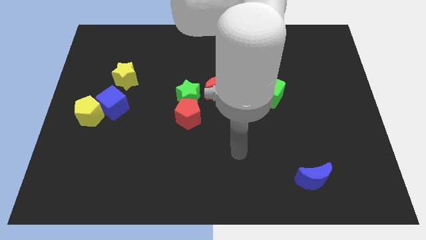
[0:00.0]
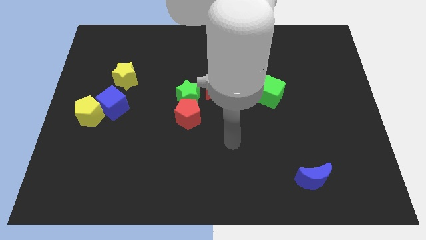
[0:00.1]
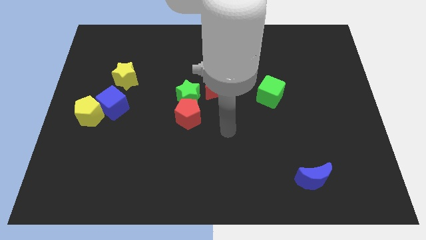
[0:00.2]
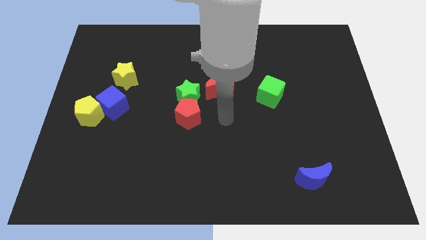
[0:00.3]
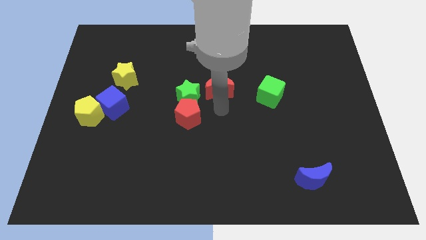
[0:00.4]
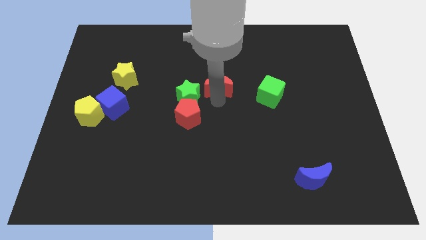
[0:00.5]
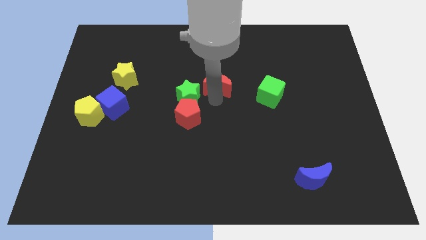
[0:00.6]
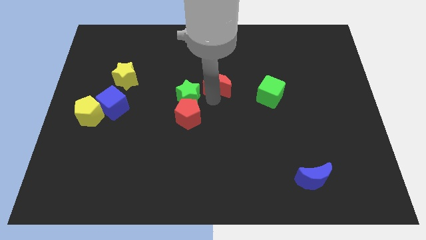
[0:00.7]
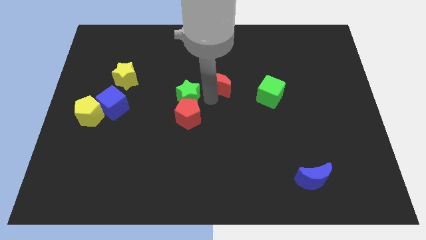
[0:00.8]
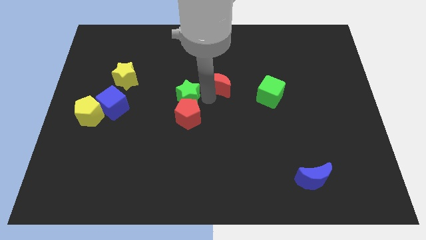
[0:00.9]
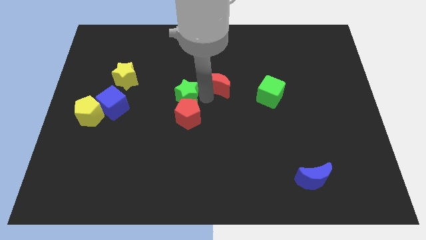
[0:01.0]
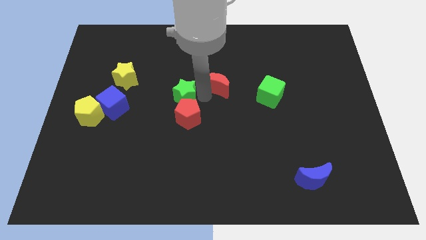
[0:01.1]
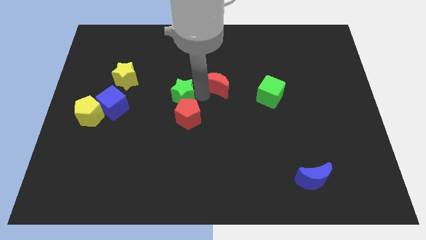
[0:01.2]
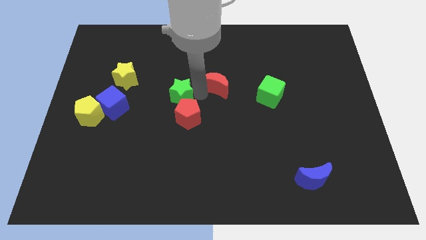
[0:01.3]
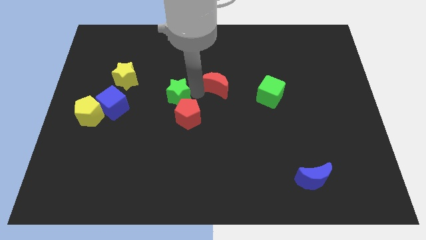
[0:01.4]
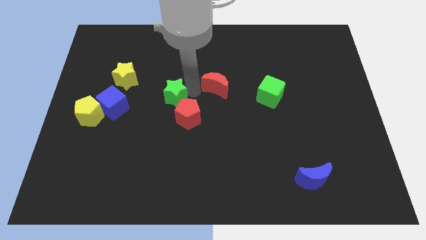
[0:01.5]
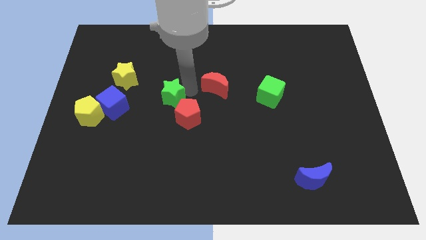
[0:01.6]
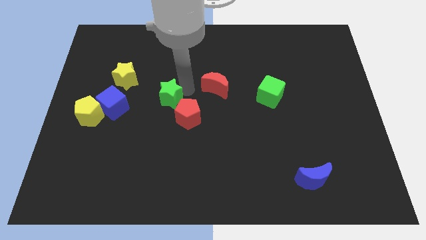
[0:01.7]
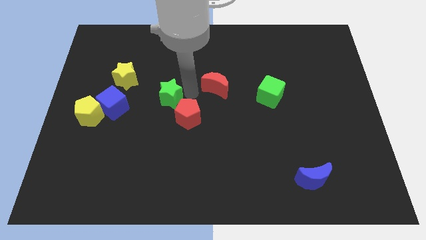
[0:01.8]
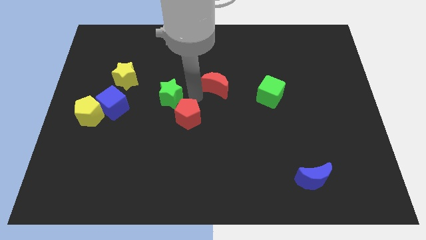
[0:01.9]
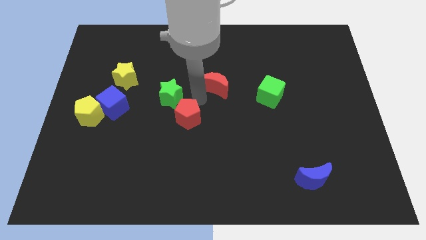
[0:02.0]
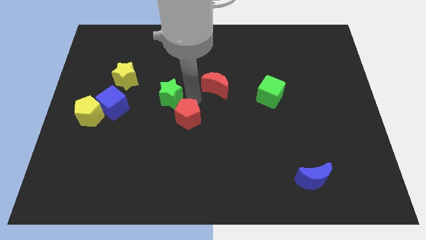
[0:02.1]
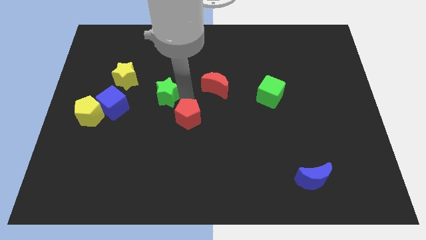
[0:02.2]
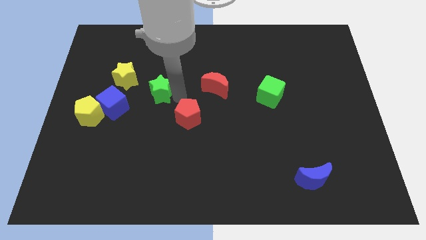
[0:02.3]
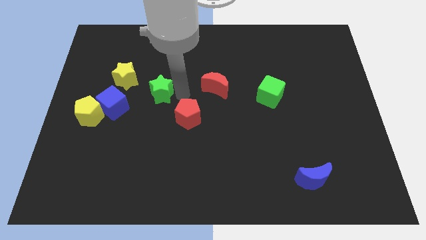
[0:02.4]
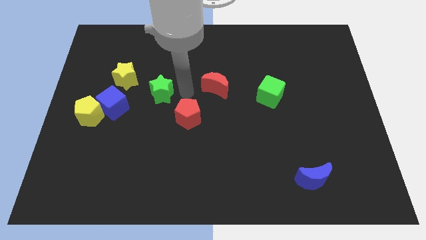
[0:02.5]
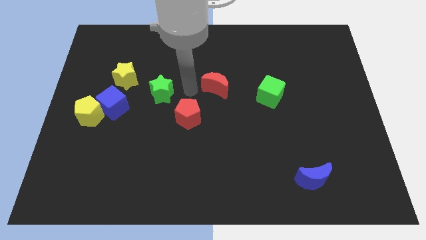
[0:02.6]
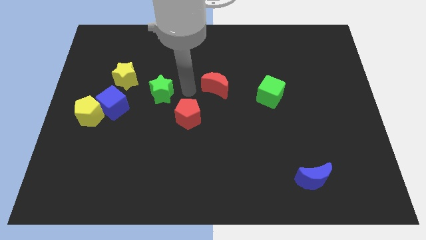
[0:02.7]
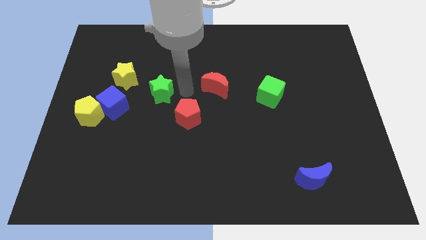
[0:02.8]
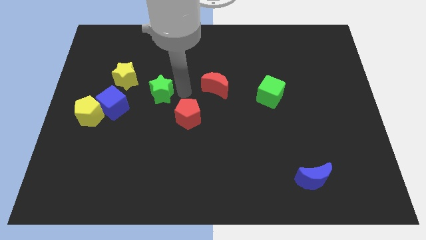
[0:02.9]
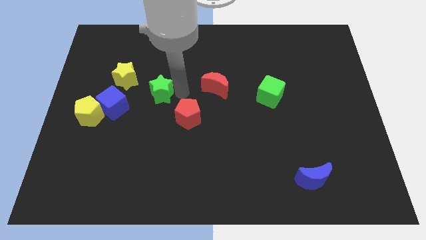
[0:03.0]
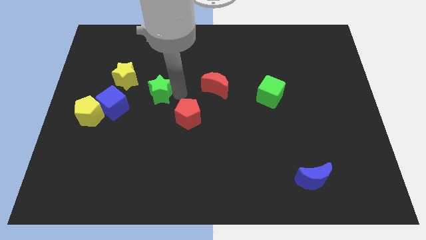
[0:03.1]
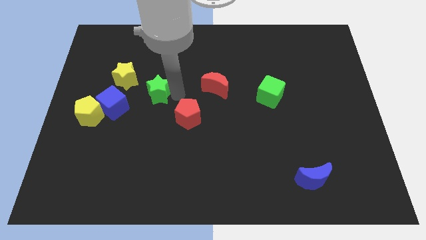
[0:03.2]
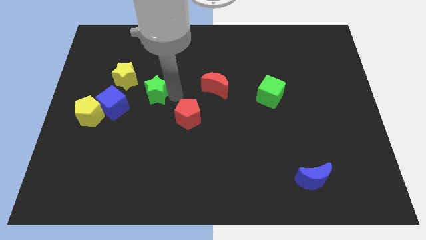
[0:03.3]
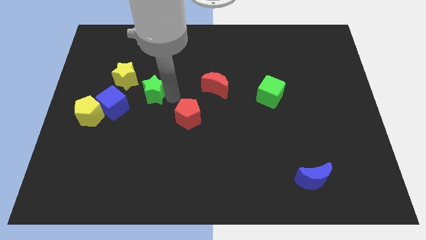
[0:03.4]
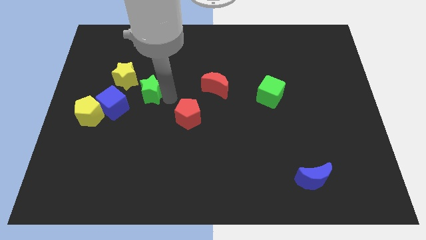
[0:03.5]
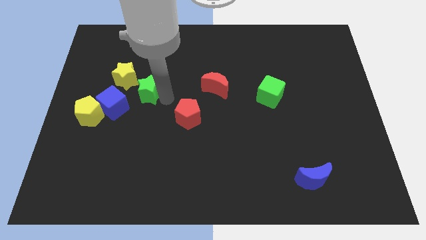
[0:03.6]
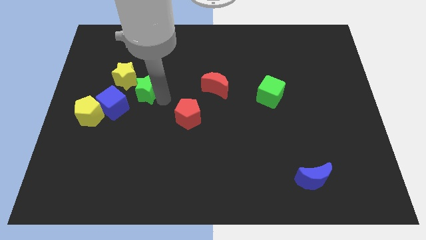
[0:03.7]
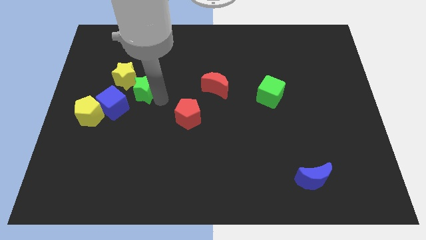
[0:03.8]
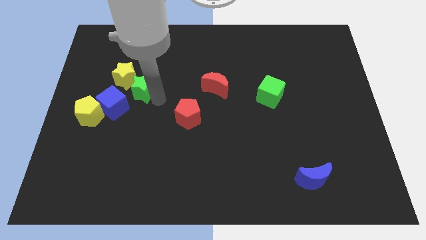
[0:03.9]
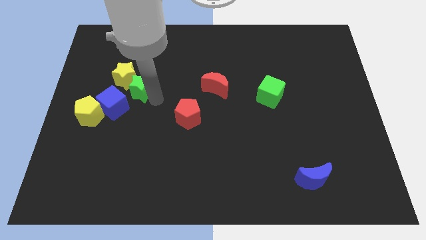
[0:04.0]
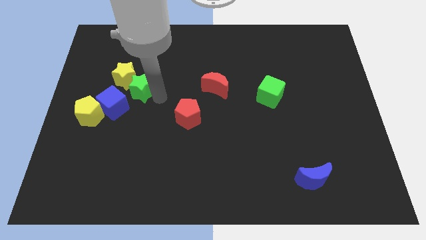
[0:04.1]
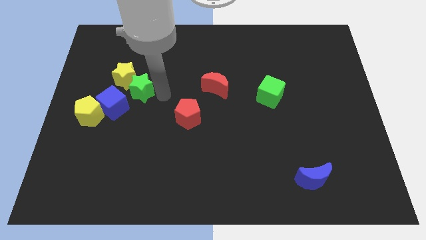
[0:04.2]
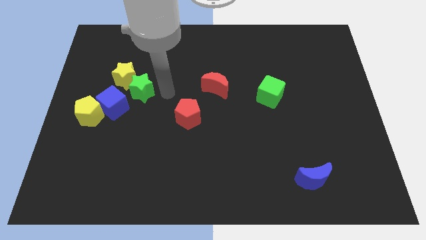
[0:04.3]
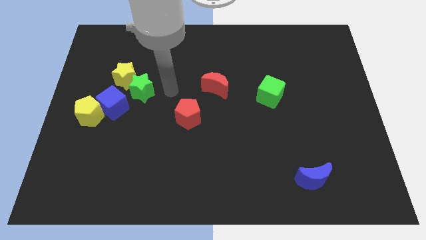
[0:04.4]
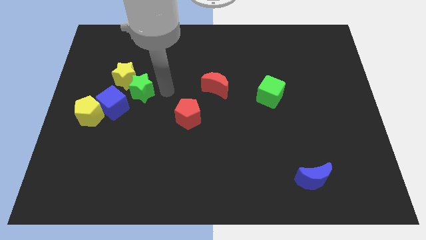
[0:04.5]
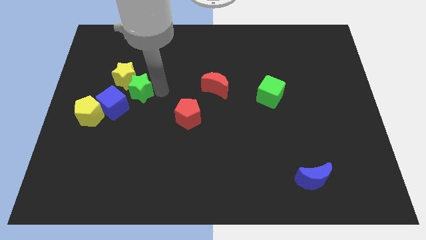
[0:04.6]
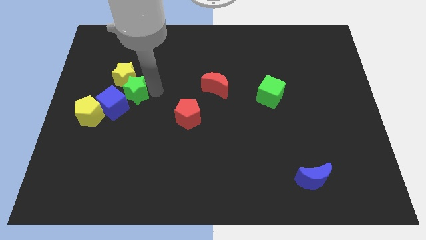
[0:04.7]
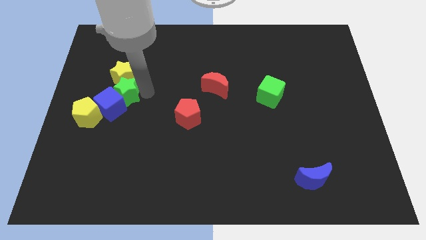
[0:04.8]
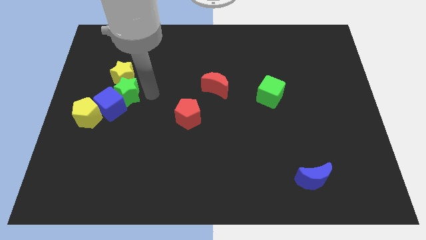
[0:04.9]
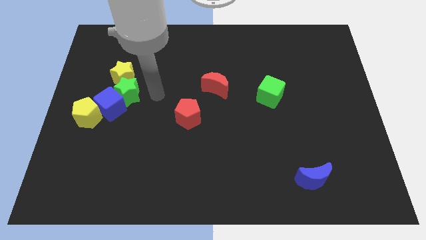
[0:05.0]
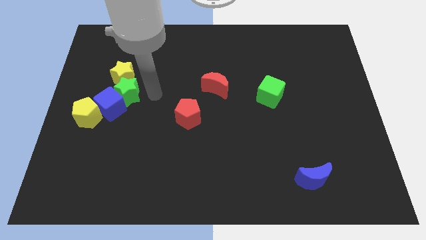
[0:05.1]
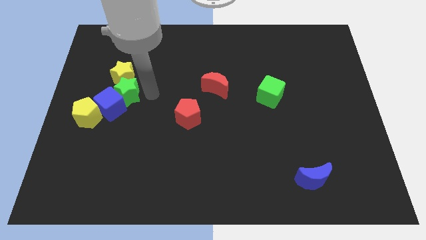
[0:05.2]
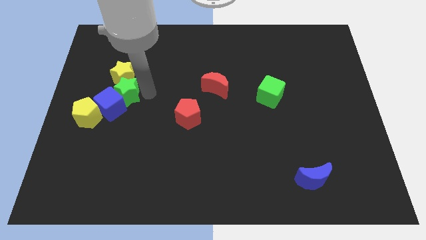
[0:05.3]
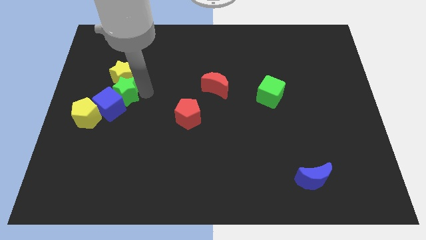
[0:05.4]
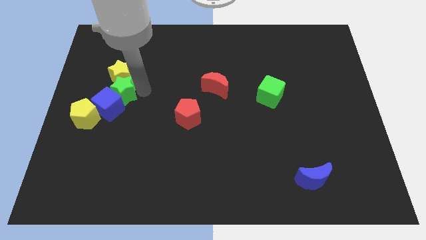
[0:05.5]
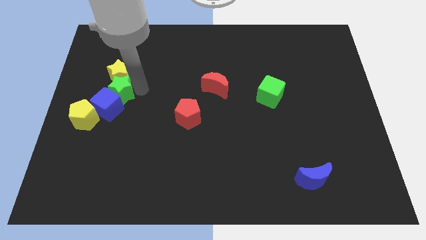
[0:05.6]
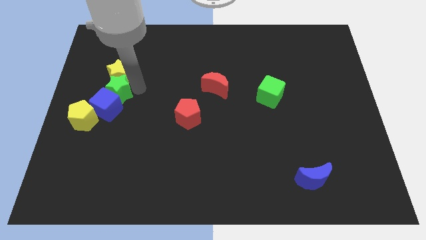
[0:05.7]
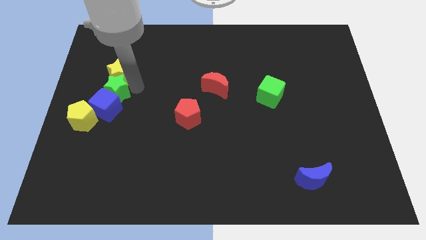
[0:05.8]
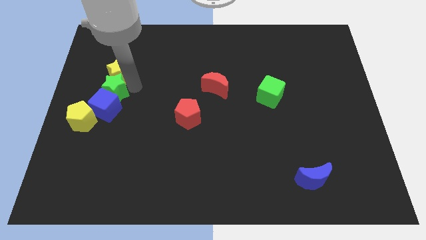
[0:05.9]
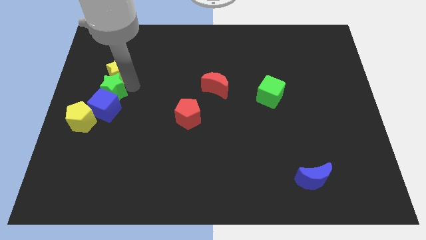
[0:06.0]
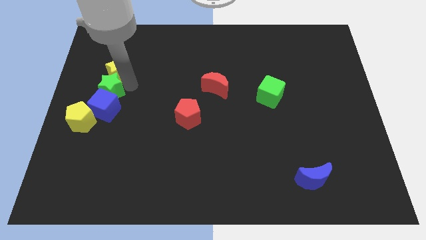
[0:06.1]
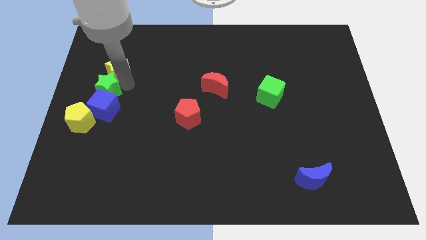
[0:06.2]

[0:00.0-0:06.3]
put the green star to the center left
